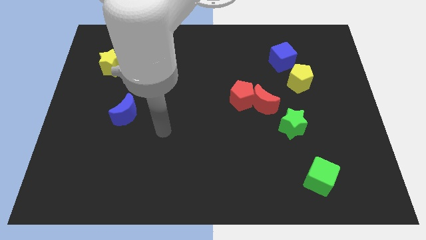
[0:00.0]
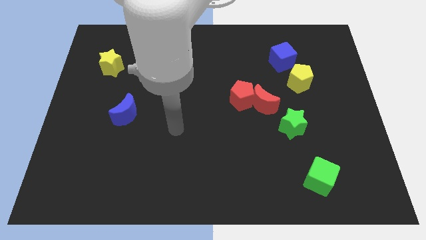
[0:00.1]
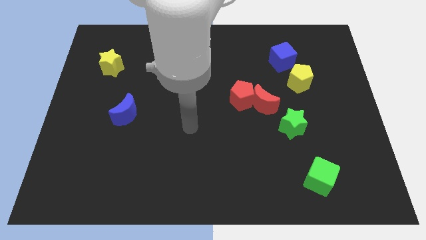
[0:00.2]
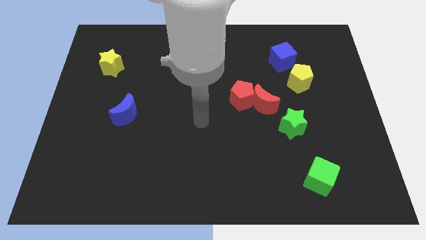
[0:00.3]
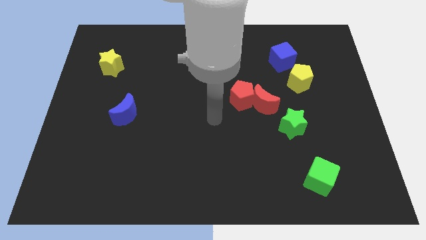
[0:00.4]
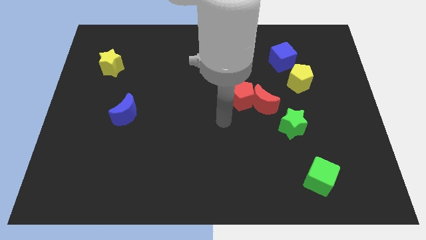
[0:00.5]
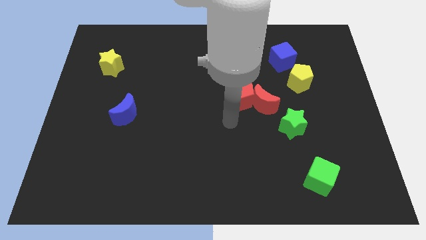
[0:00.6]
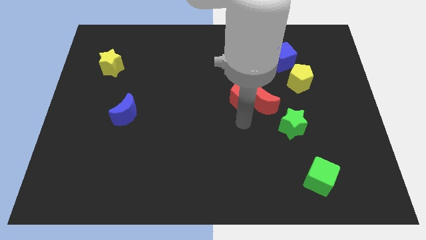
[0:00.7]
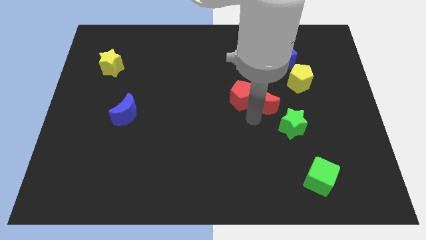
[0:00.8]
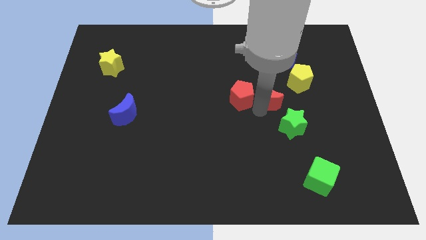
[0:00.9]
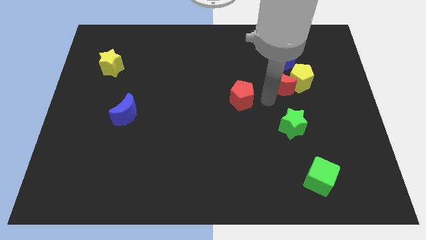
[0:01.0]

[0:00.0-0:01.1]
move the red pentagon away from the red moon

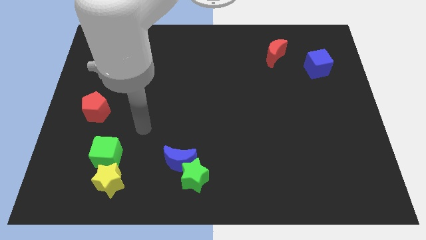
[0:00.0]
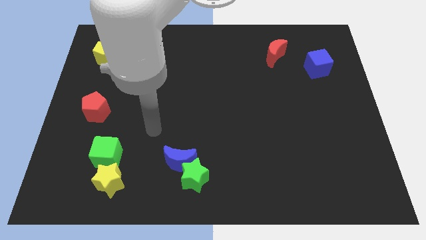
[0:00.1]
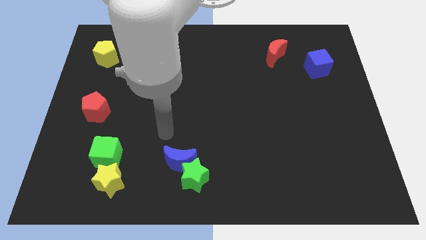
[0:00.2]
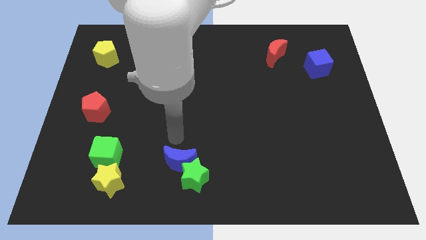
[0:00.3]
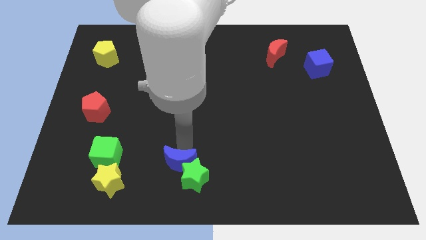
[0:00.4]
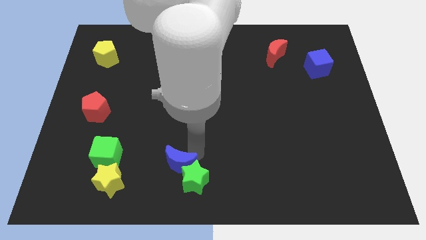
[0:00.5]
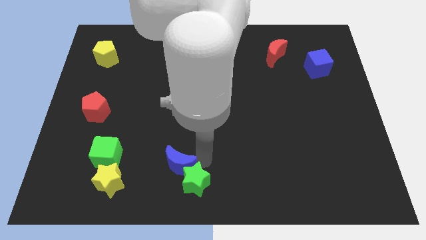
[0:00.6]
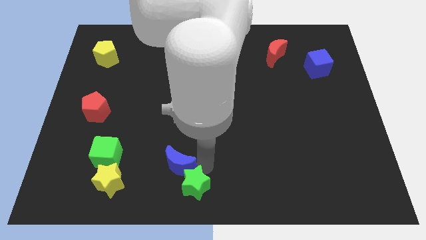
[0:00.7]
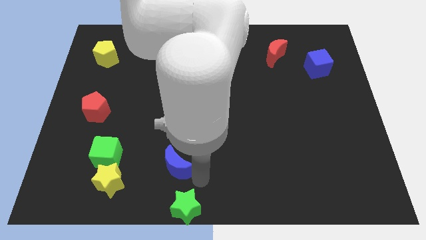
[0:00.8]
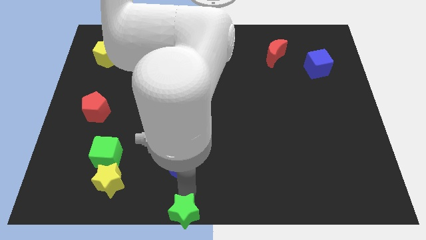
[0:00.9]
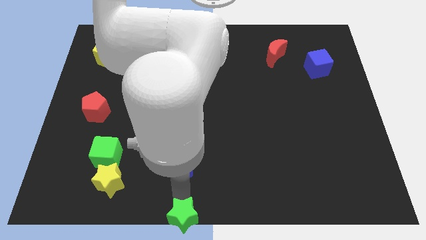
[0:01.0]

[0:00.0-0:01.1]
separate the blue moon from the green star

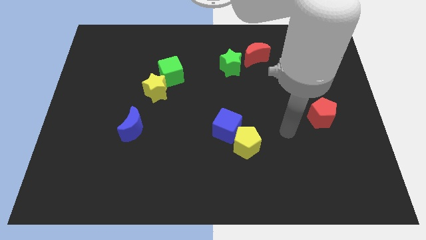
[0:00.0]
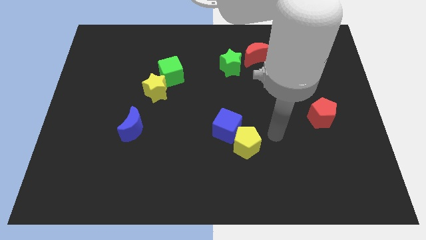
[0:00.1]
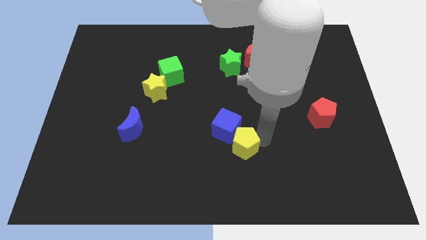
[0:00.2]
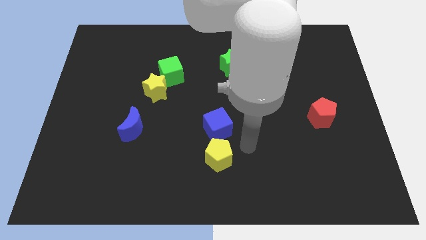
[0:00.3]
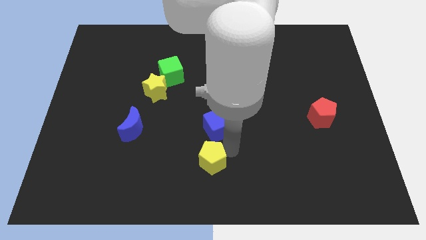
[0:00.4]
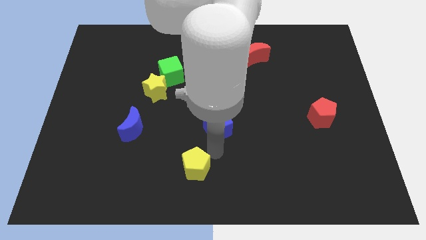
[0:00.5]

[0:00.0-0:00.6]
separate the blue cube from the yellow pentagon

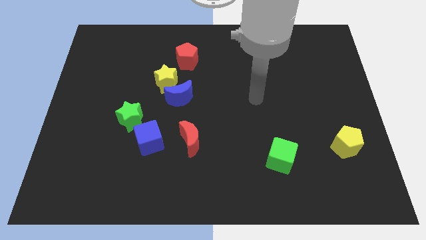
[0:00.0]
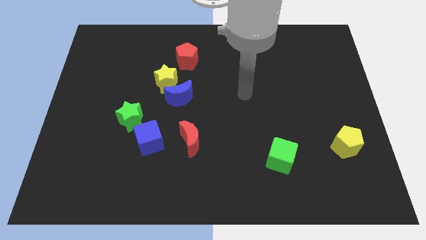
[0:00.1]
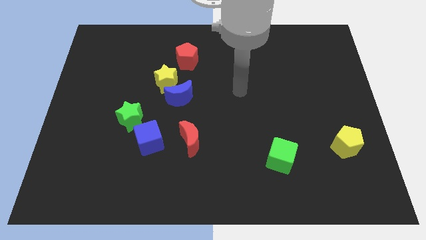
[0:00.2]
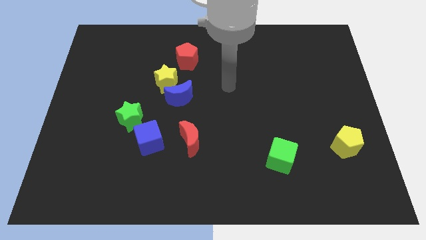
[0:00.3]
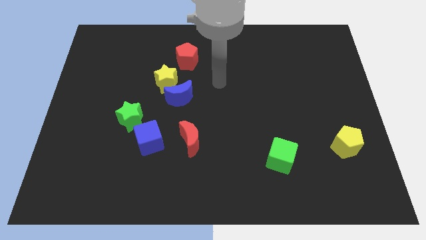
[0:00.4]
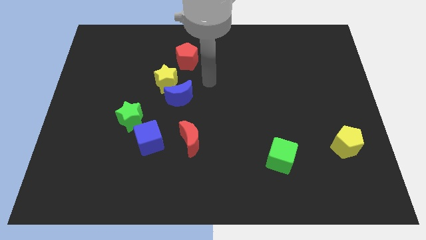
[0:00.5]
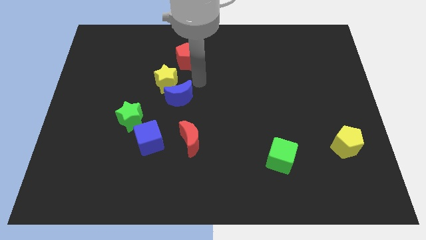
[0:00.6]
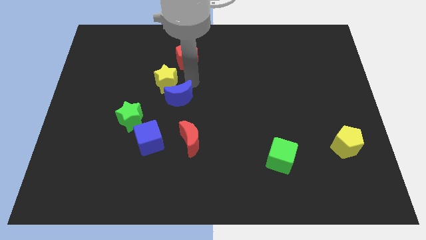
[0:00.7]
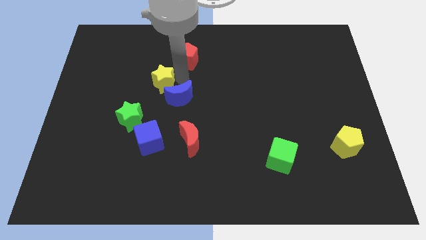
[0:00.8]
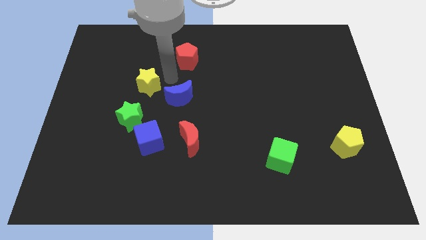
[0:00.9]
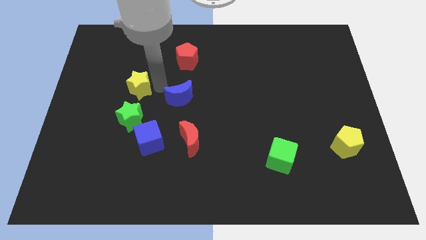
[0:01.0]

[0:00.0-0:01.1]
pull the blue moon apart from the yellow star

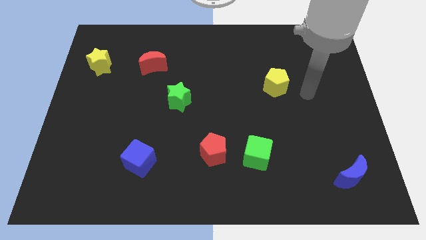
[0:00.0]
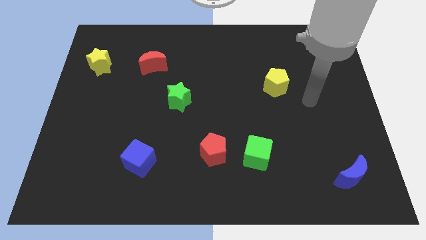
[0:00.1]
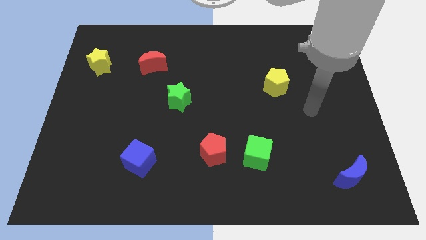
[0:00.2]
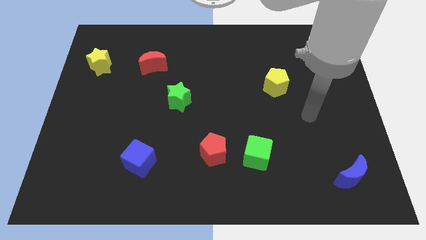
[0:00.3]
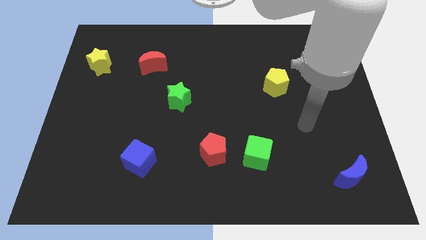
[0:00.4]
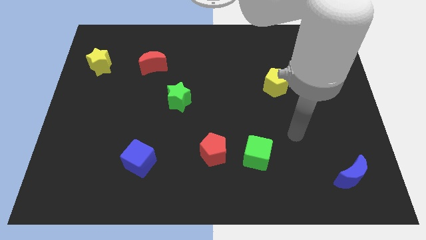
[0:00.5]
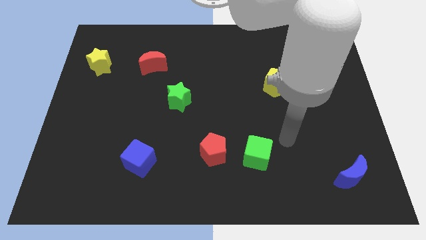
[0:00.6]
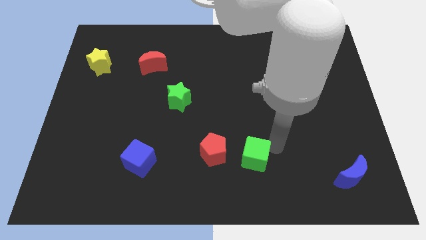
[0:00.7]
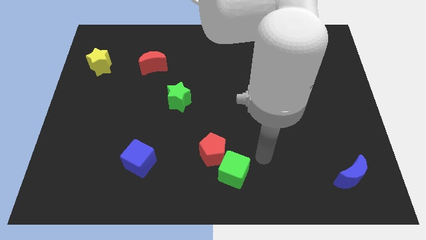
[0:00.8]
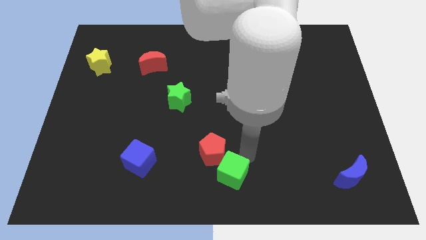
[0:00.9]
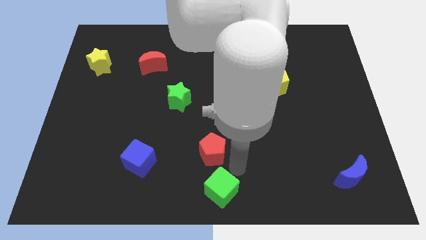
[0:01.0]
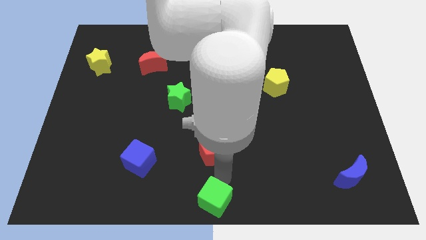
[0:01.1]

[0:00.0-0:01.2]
separate the red pentagon from the green cube

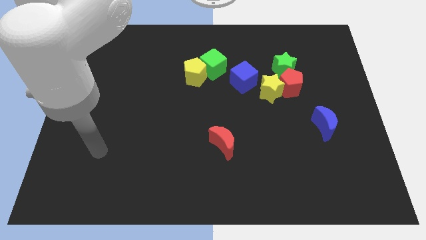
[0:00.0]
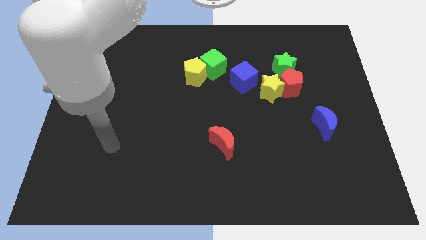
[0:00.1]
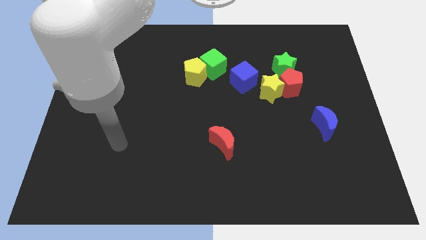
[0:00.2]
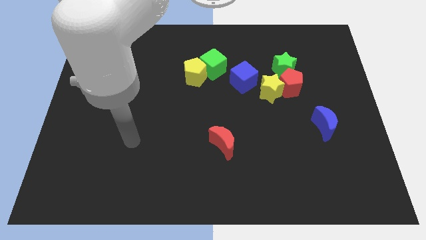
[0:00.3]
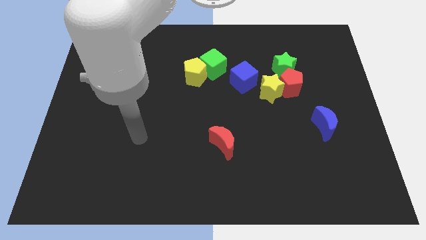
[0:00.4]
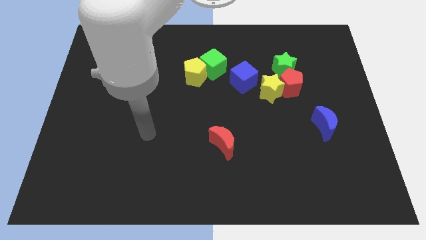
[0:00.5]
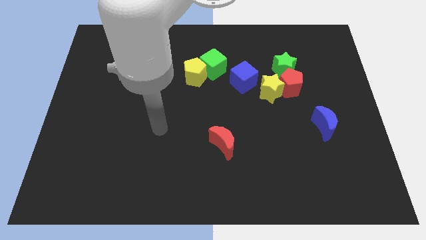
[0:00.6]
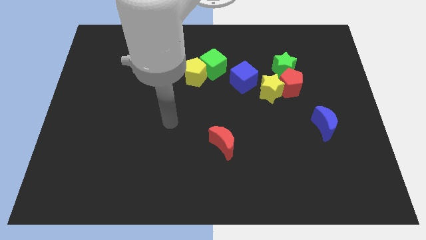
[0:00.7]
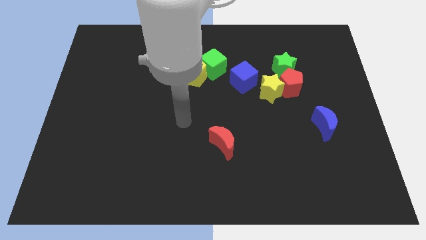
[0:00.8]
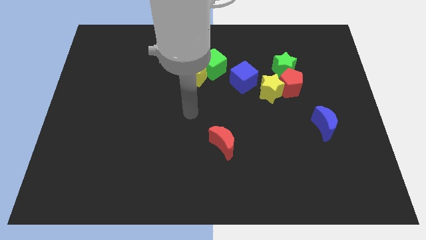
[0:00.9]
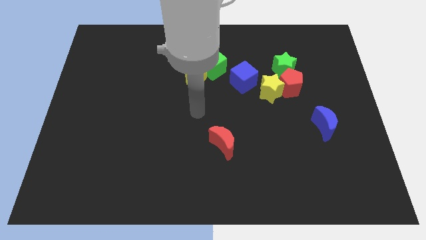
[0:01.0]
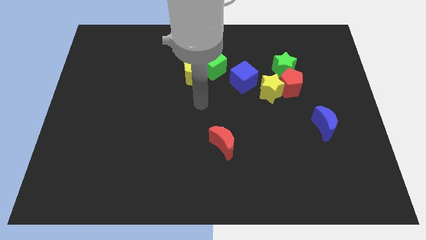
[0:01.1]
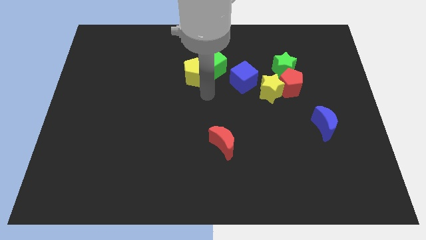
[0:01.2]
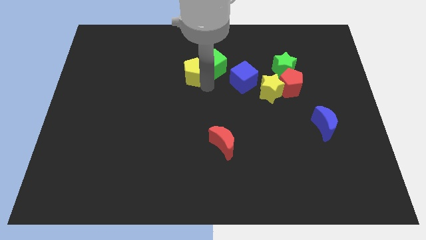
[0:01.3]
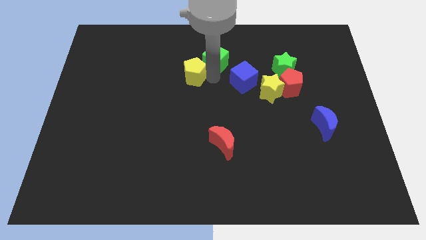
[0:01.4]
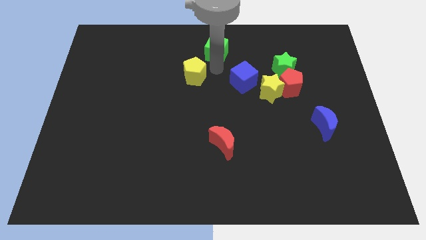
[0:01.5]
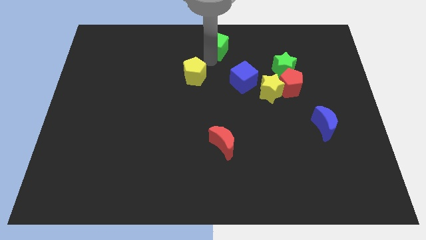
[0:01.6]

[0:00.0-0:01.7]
move the yellow pentagon away from the green cube

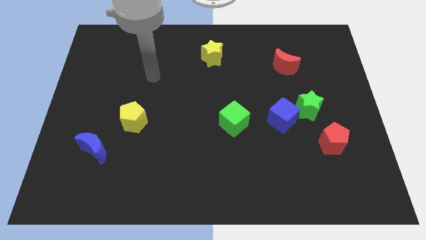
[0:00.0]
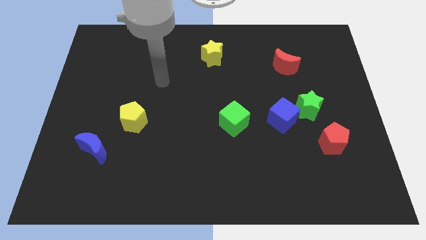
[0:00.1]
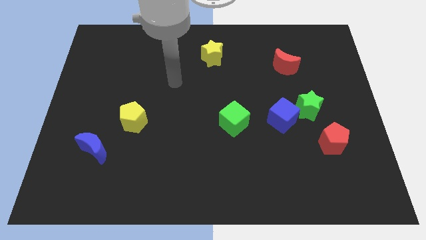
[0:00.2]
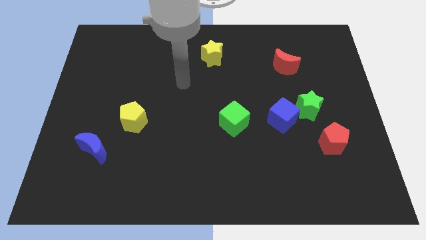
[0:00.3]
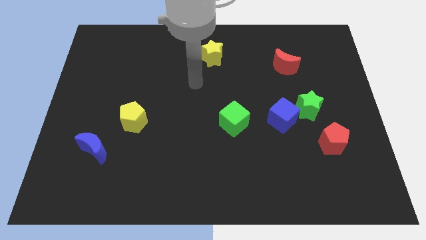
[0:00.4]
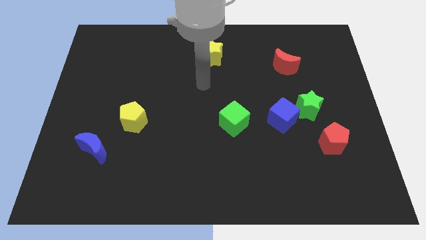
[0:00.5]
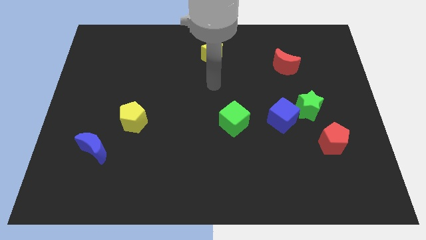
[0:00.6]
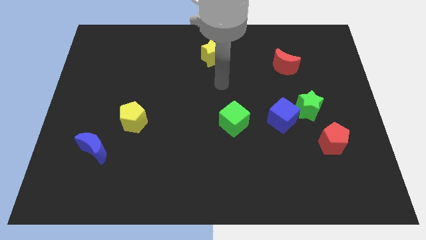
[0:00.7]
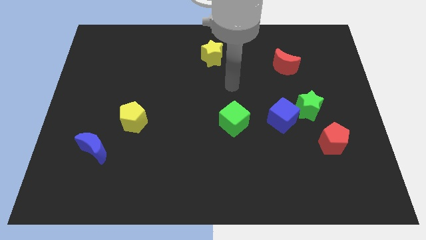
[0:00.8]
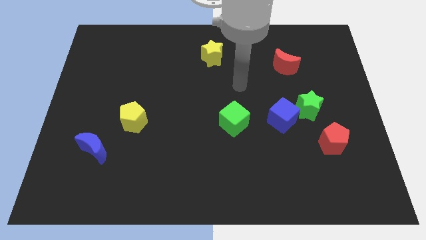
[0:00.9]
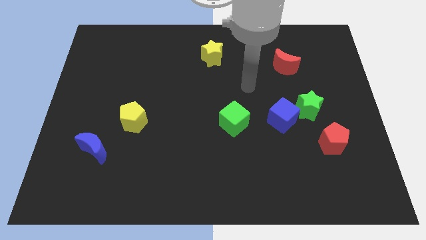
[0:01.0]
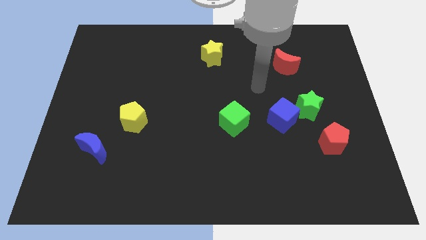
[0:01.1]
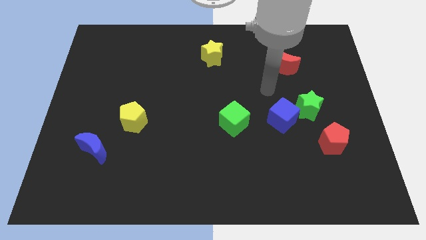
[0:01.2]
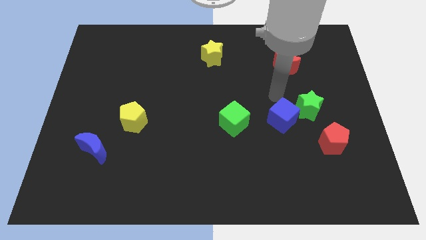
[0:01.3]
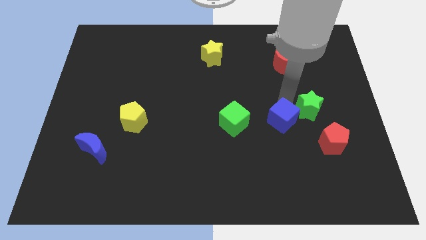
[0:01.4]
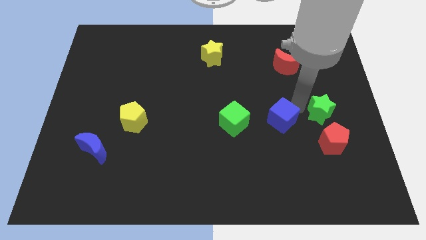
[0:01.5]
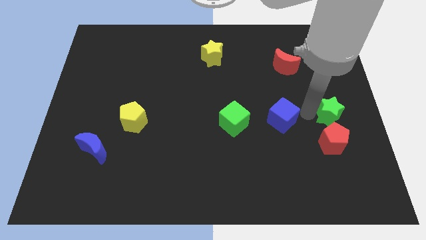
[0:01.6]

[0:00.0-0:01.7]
separate the blue cube from the green star

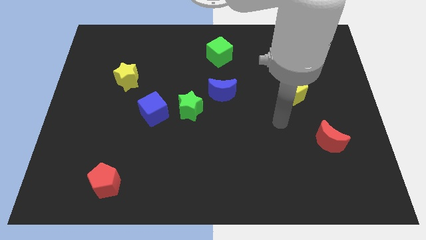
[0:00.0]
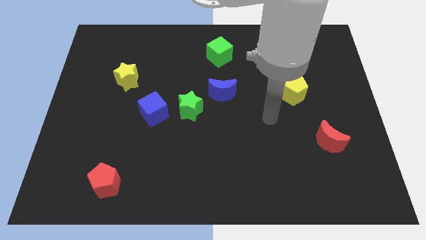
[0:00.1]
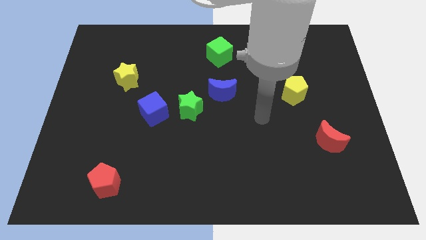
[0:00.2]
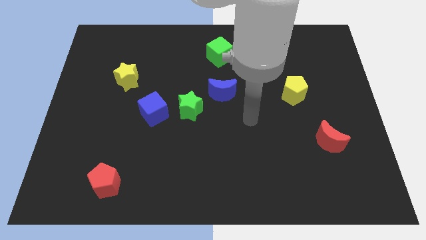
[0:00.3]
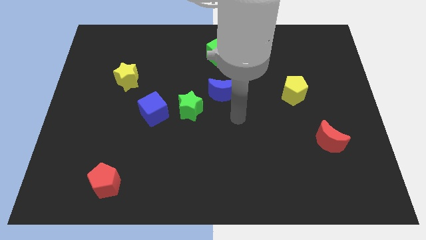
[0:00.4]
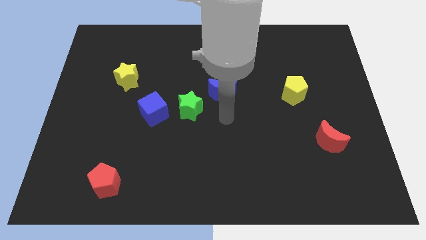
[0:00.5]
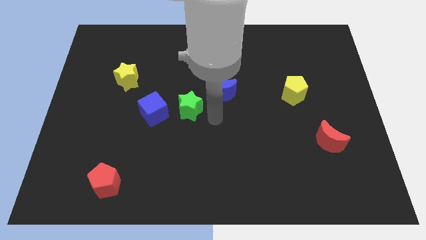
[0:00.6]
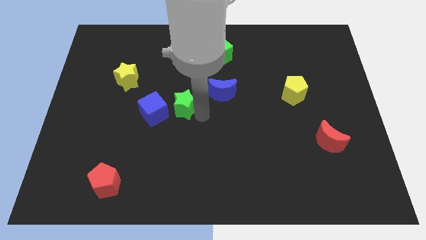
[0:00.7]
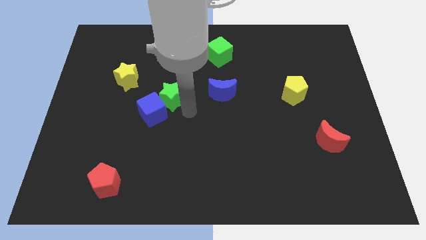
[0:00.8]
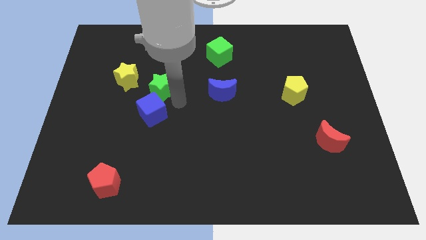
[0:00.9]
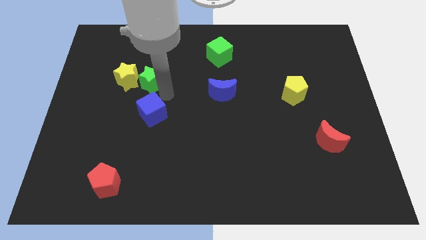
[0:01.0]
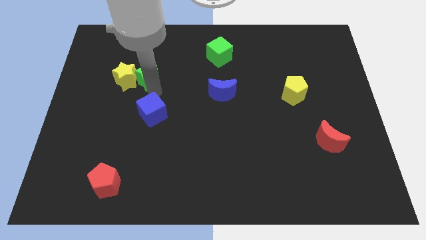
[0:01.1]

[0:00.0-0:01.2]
move the blue cube away from the green star
